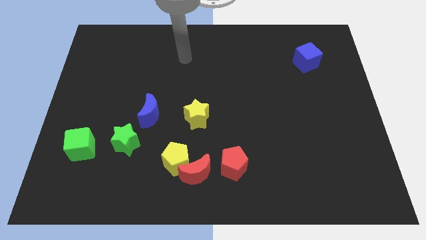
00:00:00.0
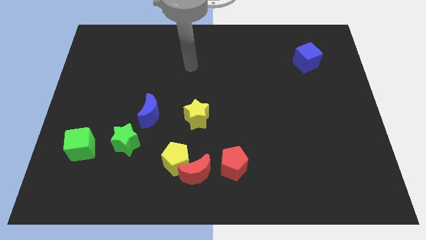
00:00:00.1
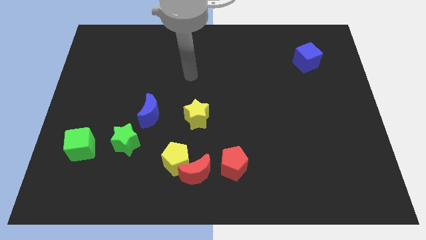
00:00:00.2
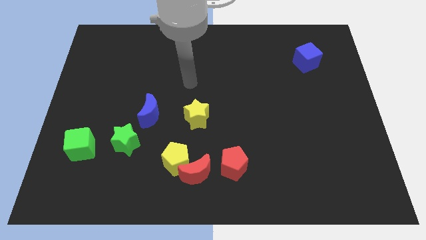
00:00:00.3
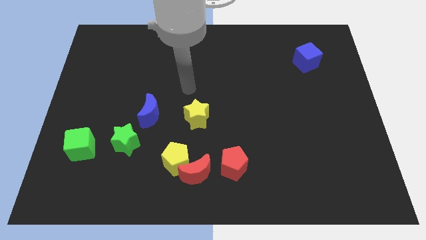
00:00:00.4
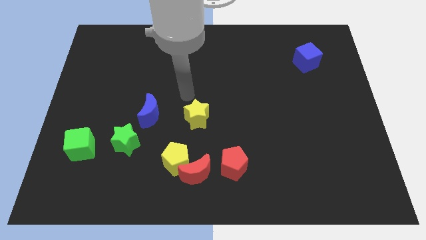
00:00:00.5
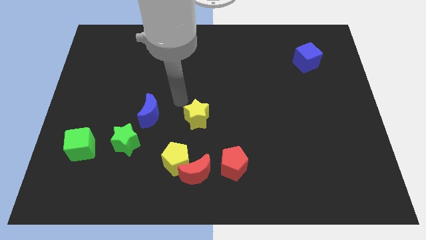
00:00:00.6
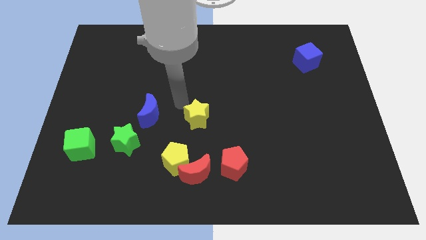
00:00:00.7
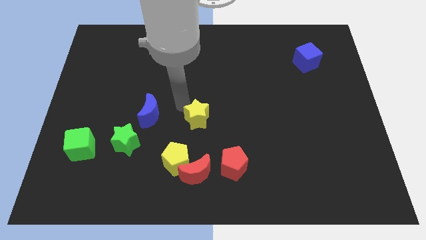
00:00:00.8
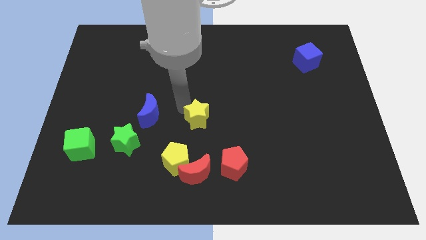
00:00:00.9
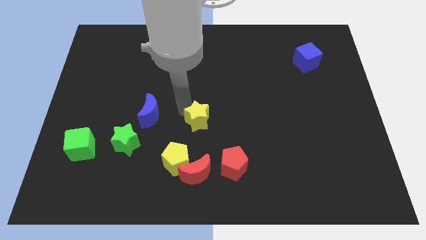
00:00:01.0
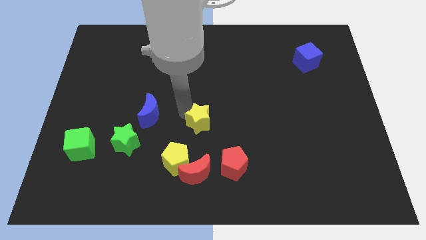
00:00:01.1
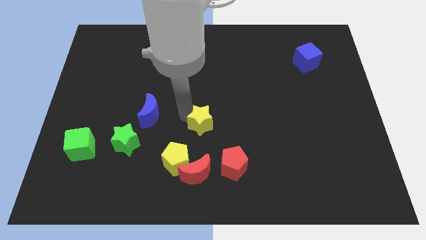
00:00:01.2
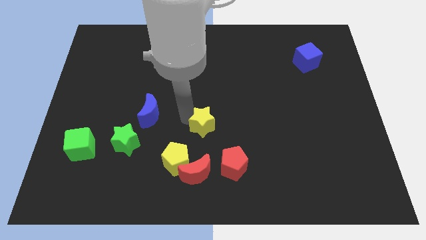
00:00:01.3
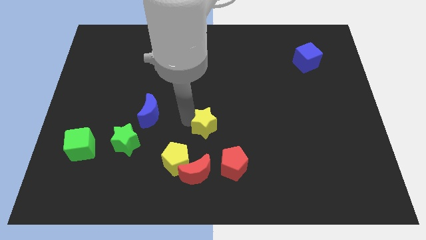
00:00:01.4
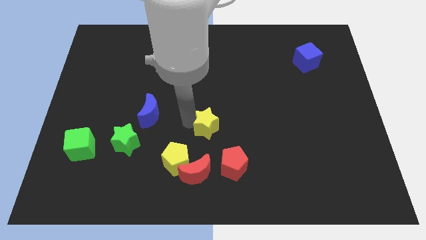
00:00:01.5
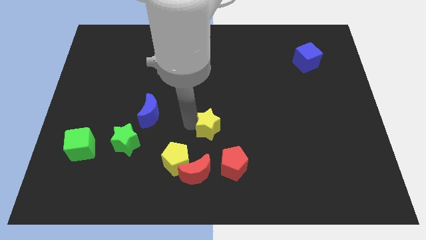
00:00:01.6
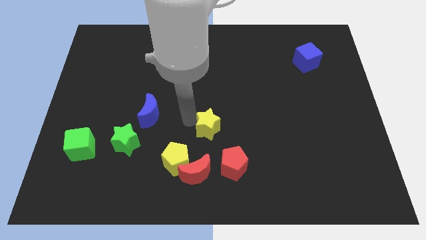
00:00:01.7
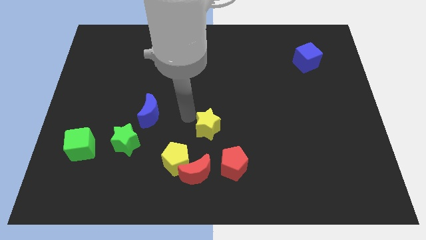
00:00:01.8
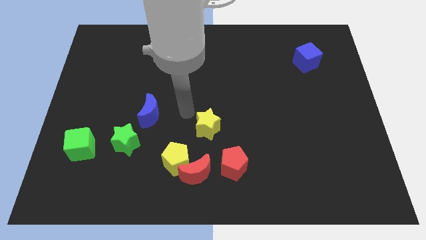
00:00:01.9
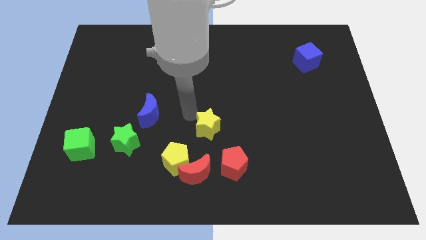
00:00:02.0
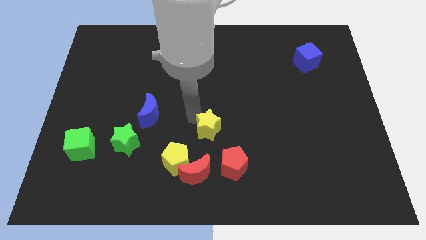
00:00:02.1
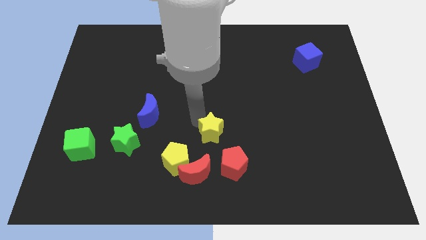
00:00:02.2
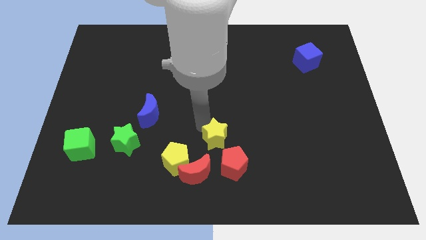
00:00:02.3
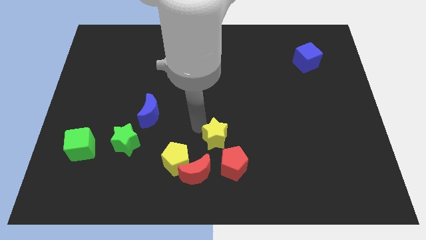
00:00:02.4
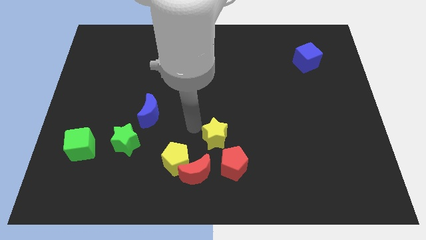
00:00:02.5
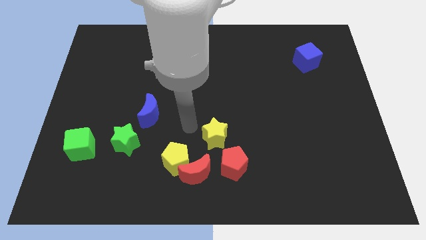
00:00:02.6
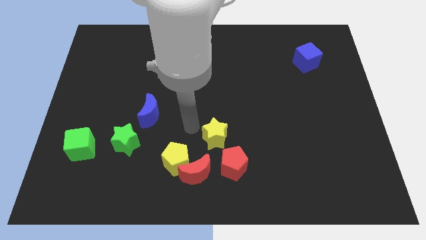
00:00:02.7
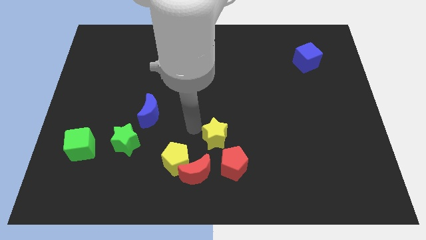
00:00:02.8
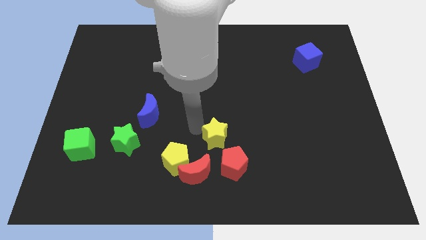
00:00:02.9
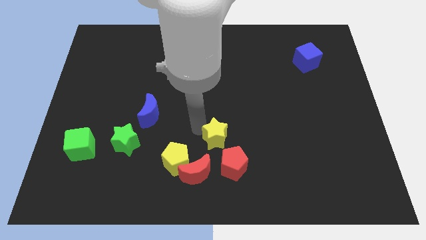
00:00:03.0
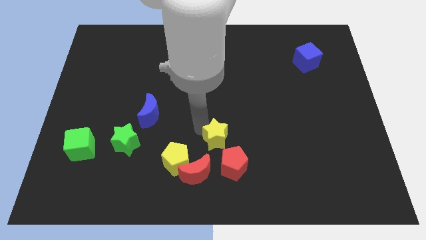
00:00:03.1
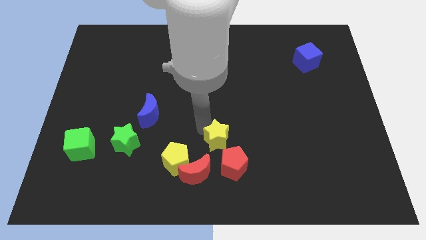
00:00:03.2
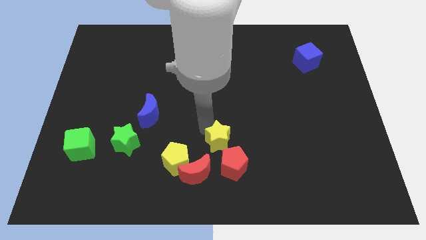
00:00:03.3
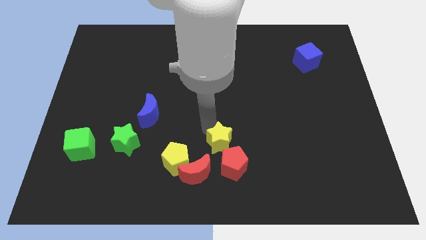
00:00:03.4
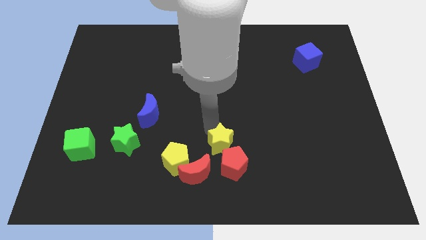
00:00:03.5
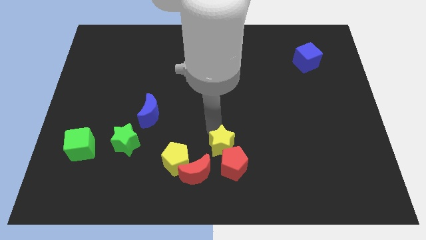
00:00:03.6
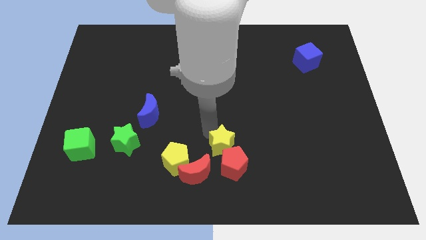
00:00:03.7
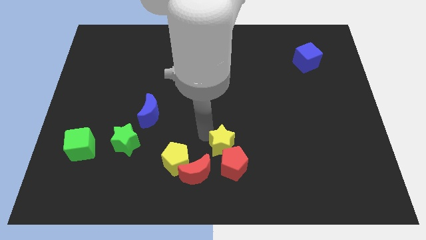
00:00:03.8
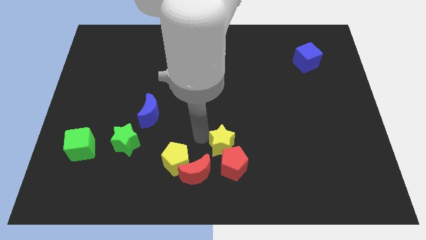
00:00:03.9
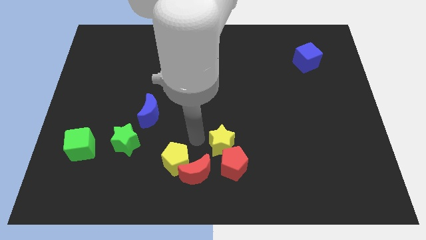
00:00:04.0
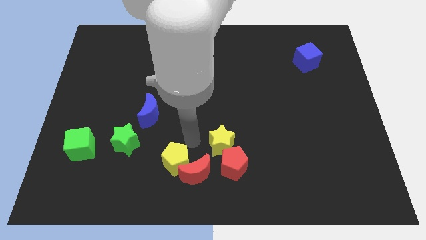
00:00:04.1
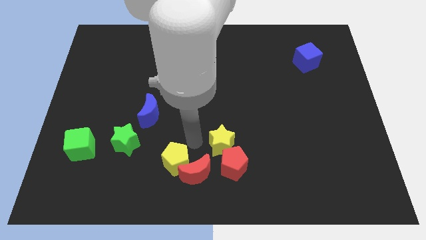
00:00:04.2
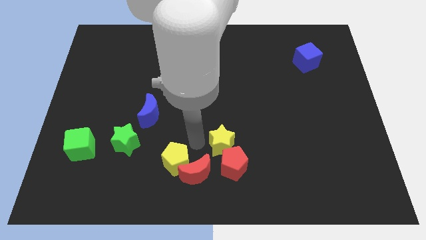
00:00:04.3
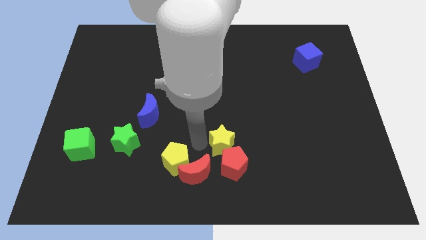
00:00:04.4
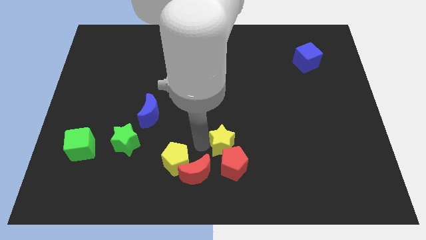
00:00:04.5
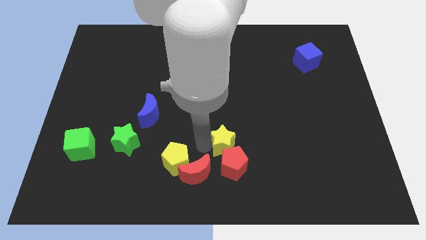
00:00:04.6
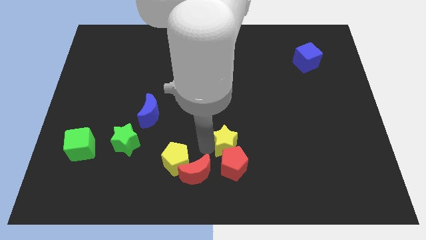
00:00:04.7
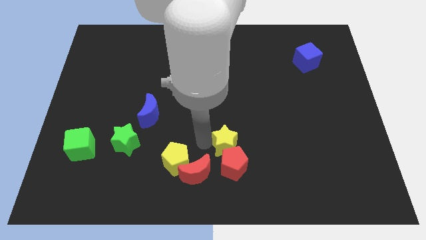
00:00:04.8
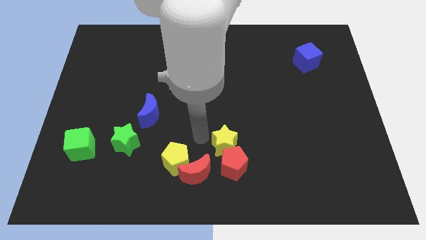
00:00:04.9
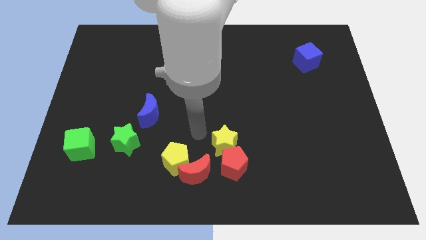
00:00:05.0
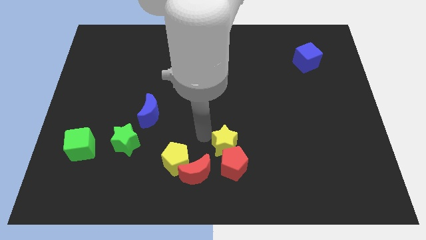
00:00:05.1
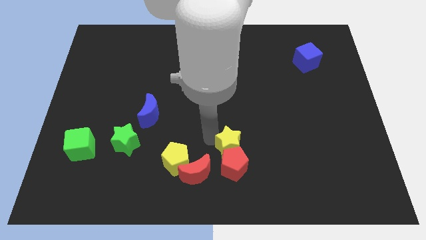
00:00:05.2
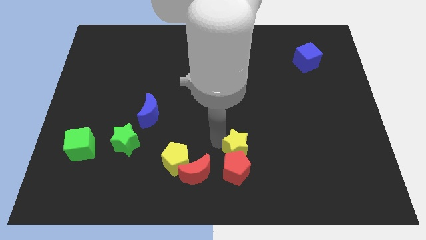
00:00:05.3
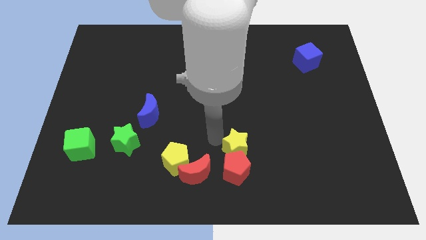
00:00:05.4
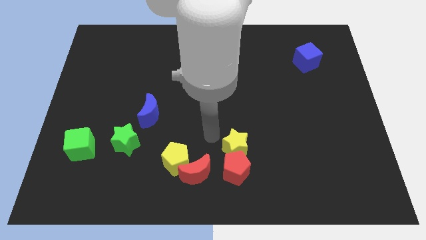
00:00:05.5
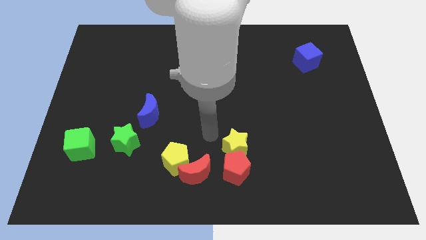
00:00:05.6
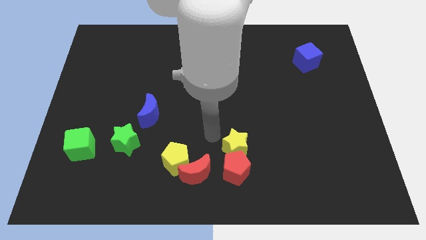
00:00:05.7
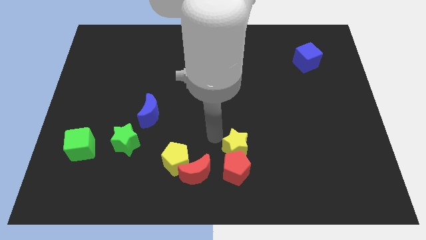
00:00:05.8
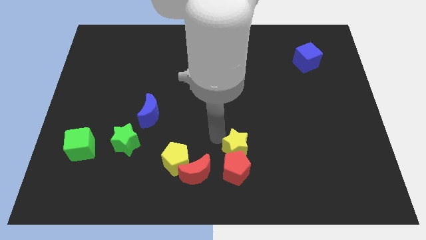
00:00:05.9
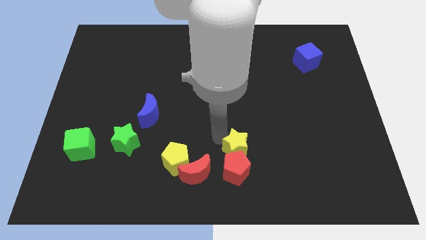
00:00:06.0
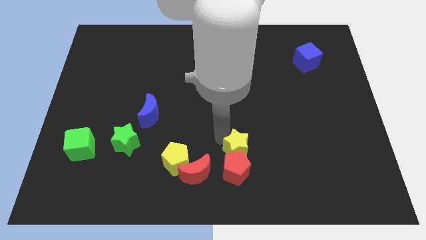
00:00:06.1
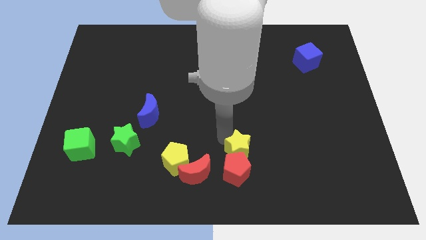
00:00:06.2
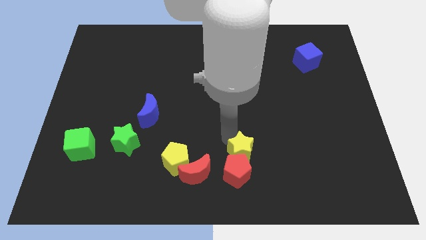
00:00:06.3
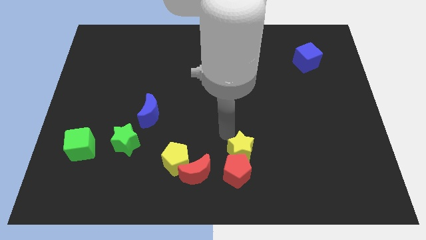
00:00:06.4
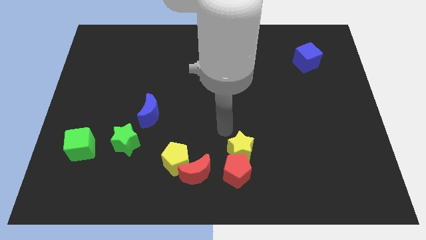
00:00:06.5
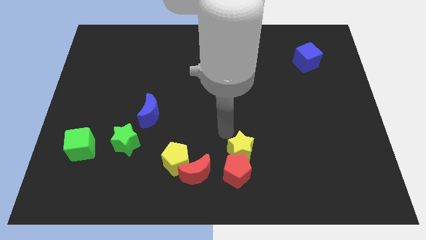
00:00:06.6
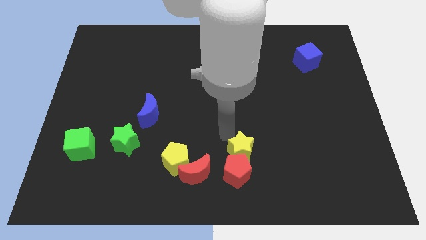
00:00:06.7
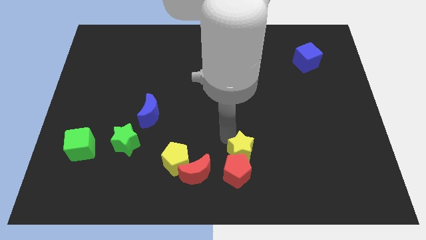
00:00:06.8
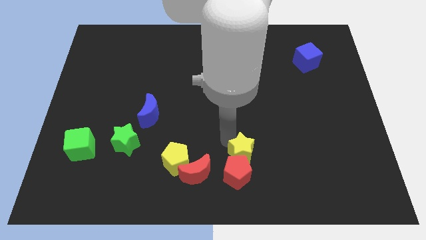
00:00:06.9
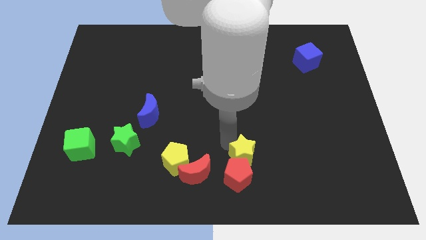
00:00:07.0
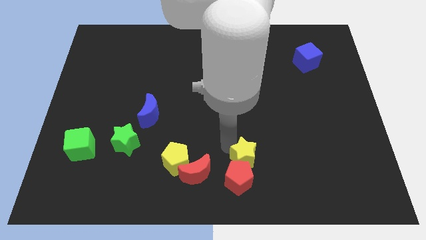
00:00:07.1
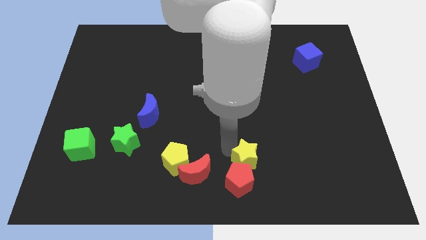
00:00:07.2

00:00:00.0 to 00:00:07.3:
move the yellow star to the bottom
